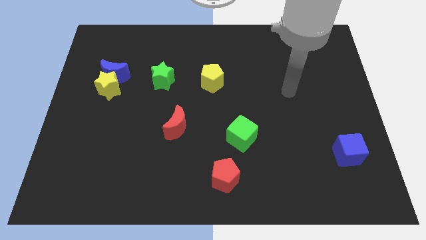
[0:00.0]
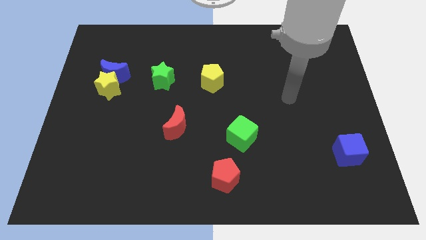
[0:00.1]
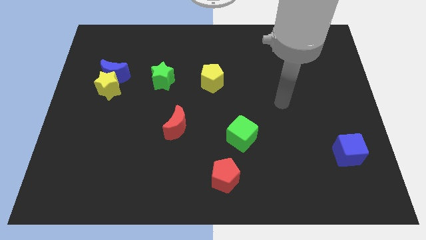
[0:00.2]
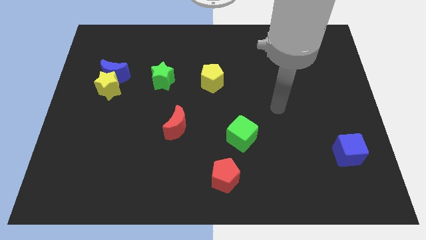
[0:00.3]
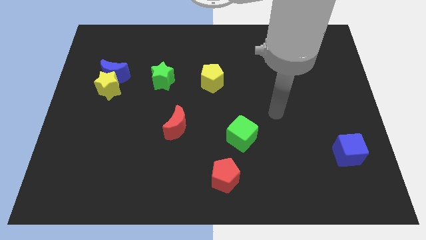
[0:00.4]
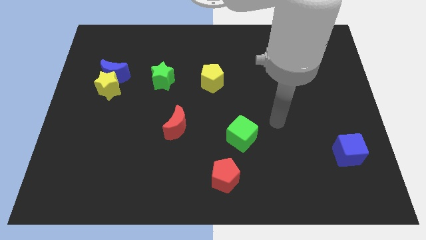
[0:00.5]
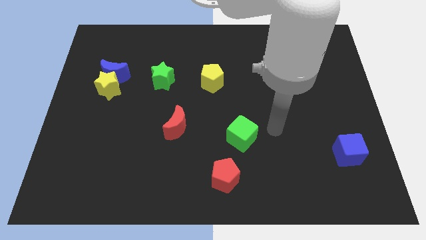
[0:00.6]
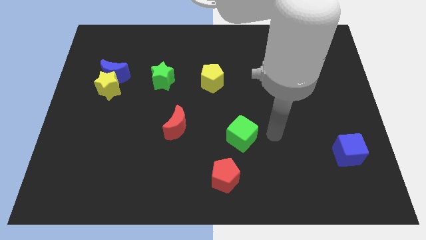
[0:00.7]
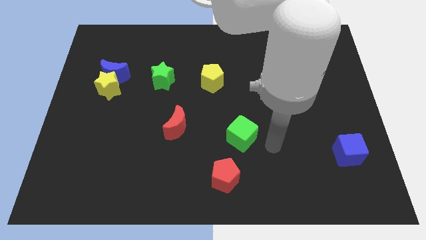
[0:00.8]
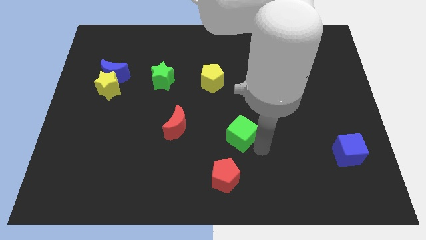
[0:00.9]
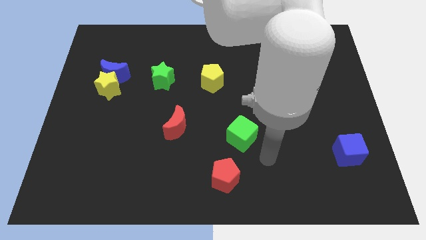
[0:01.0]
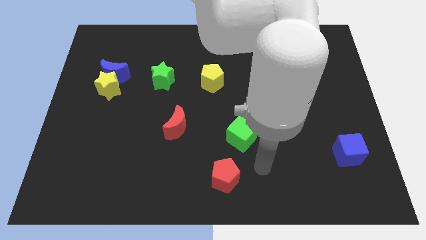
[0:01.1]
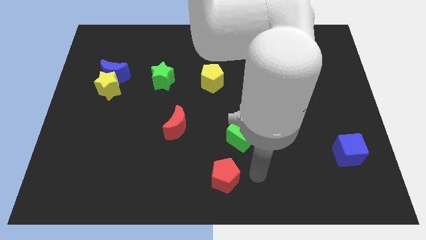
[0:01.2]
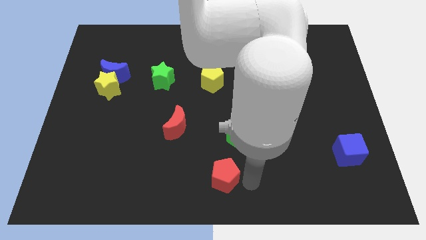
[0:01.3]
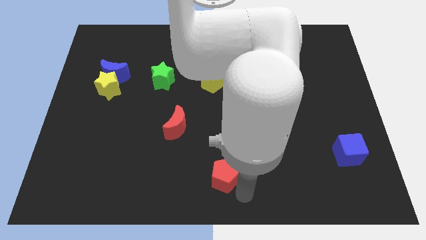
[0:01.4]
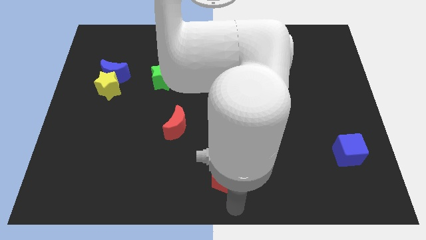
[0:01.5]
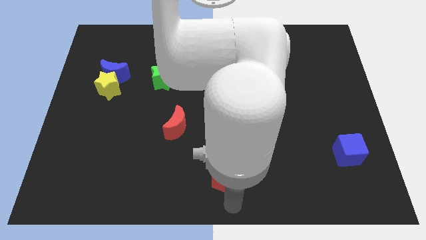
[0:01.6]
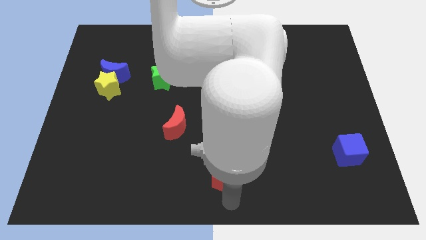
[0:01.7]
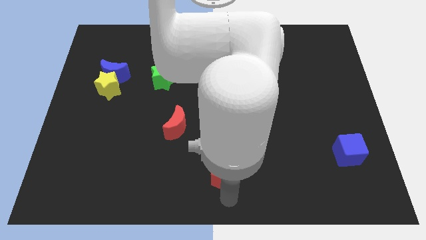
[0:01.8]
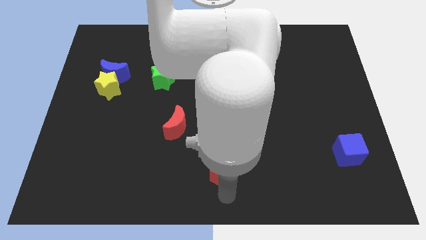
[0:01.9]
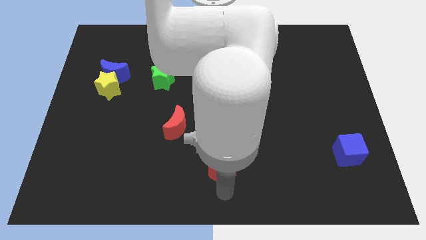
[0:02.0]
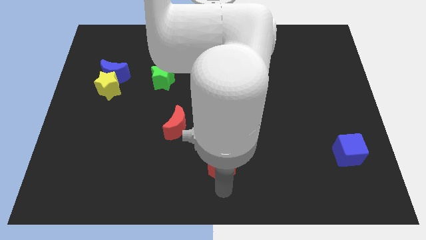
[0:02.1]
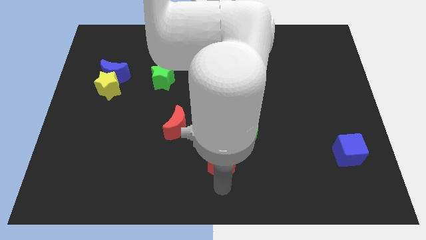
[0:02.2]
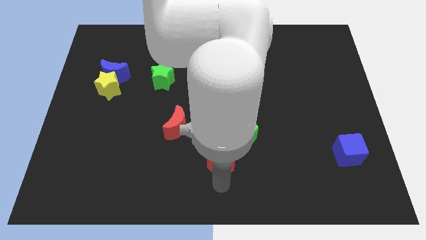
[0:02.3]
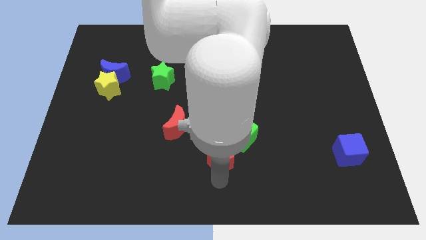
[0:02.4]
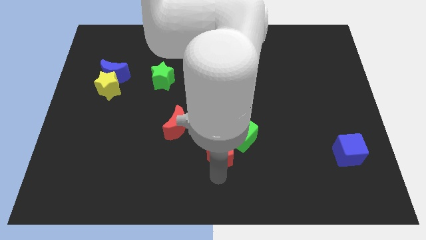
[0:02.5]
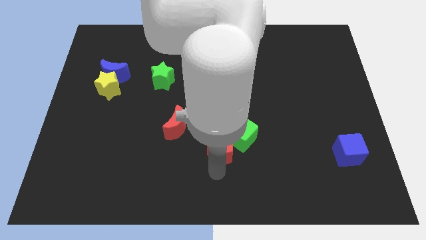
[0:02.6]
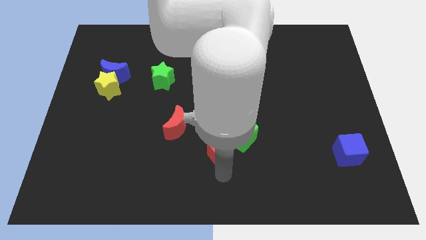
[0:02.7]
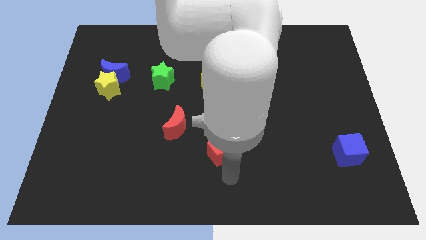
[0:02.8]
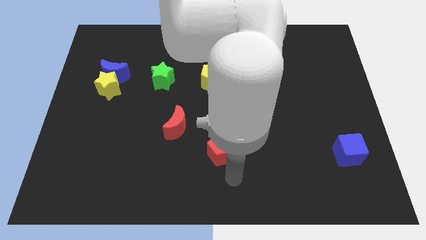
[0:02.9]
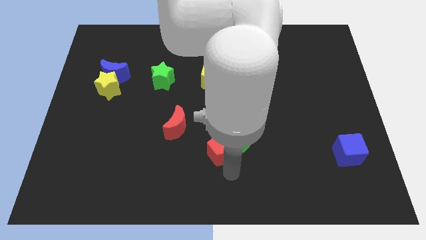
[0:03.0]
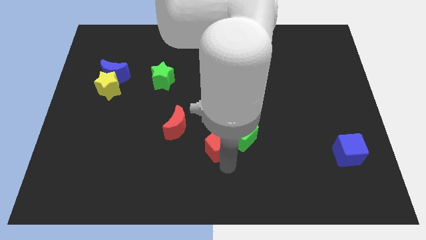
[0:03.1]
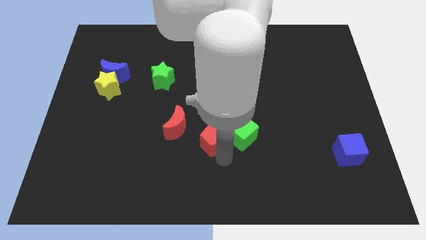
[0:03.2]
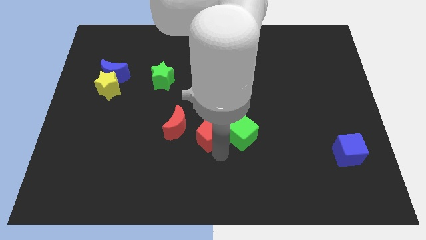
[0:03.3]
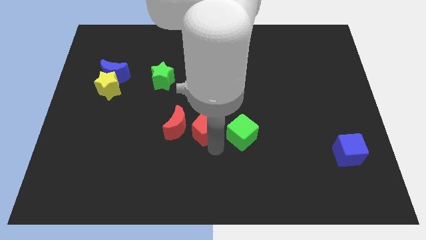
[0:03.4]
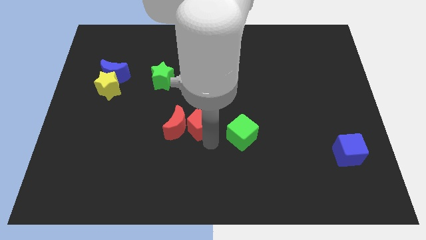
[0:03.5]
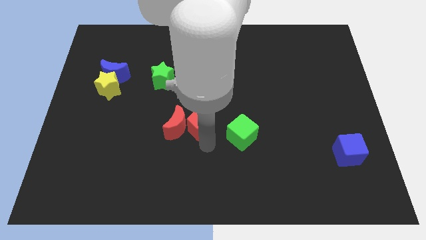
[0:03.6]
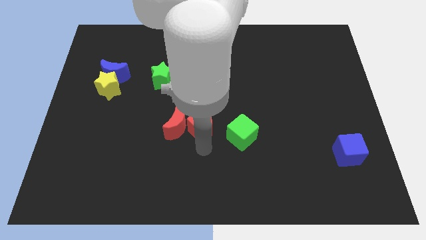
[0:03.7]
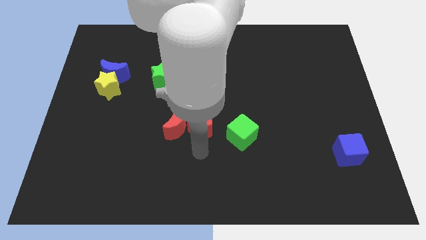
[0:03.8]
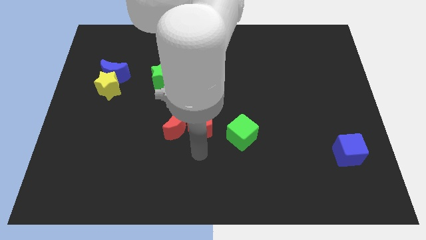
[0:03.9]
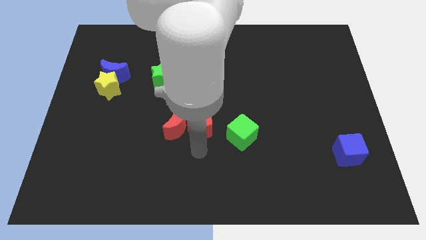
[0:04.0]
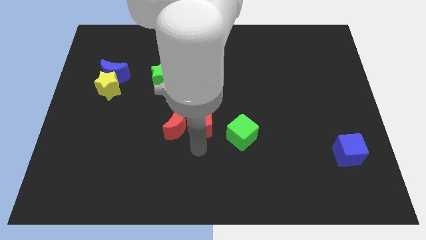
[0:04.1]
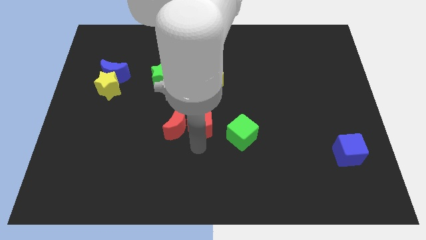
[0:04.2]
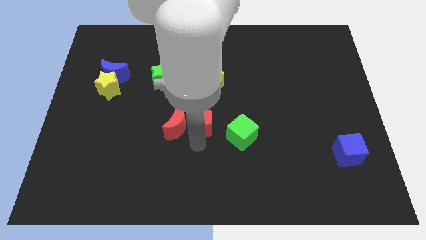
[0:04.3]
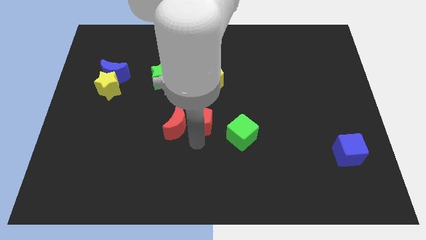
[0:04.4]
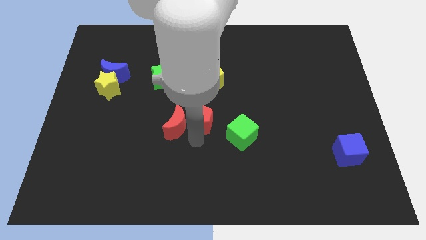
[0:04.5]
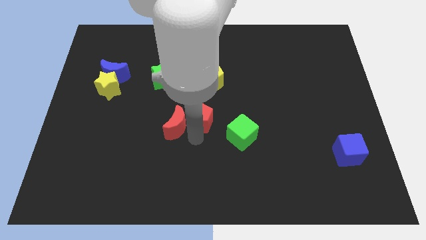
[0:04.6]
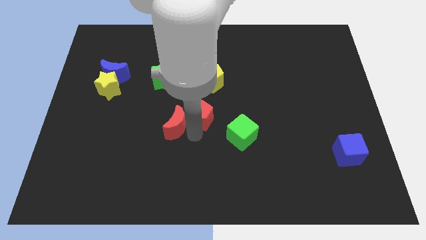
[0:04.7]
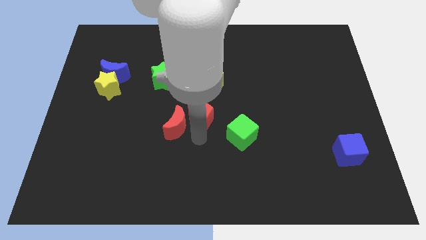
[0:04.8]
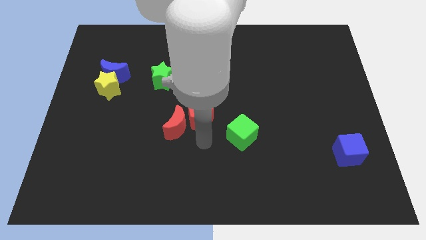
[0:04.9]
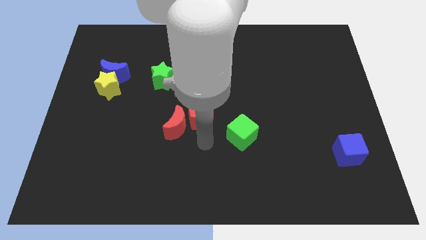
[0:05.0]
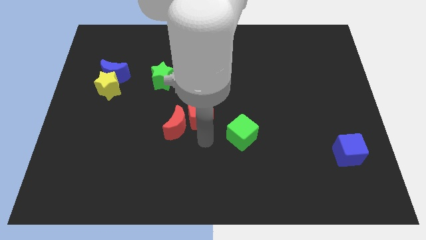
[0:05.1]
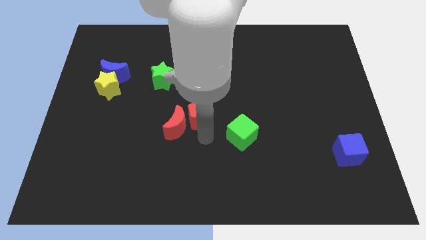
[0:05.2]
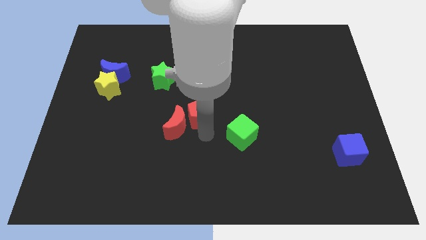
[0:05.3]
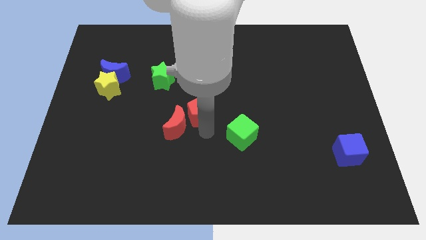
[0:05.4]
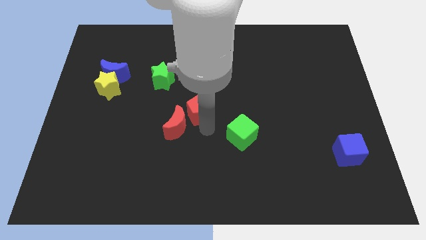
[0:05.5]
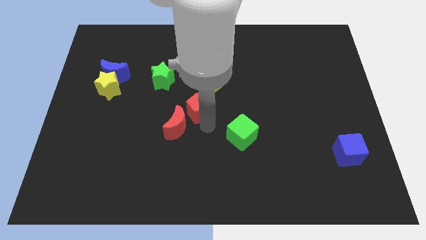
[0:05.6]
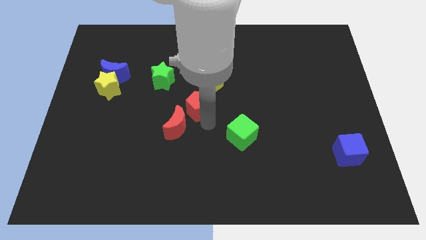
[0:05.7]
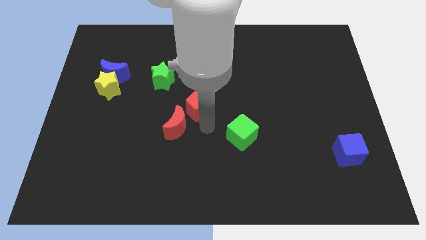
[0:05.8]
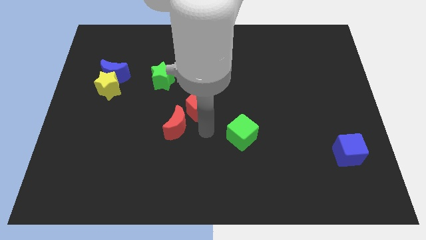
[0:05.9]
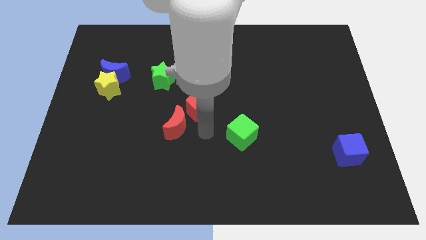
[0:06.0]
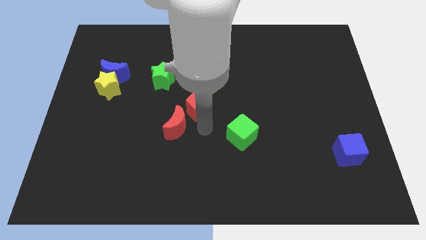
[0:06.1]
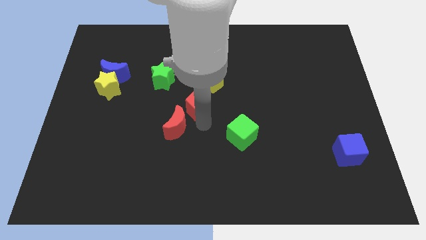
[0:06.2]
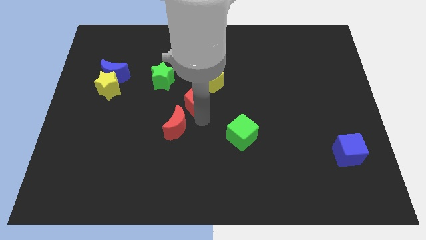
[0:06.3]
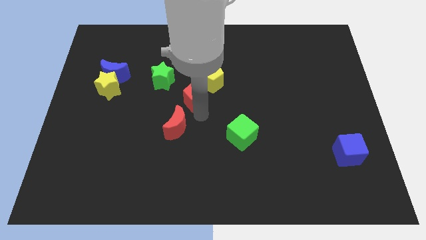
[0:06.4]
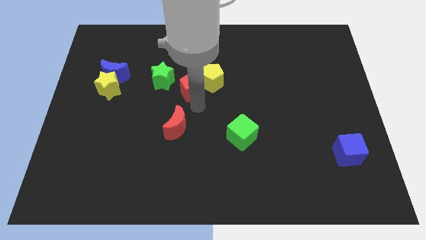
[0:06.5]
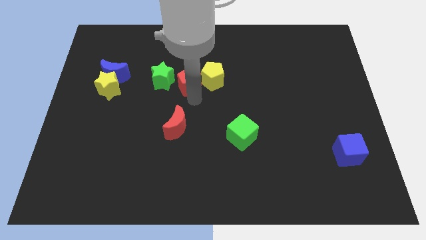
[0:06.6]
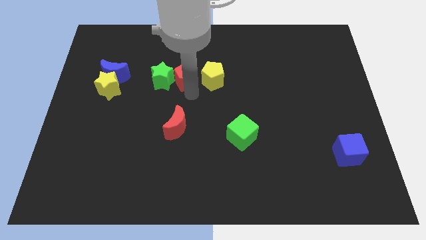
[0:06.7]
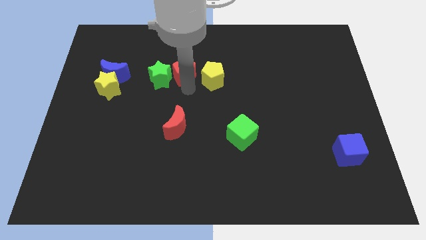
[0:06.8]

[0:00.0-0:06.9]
move the red pentagon to the top left side of the yellow pentagon
